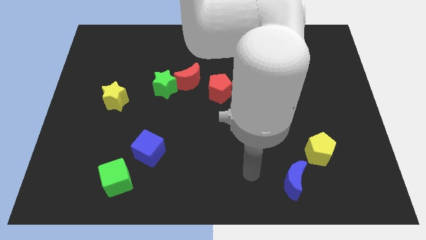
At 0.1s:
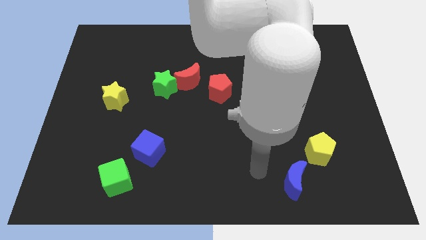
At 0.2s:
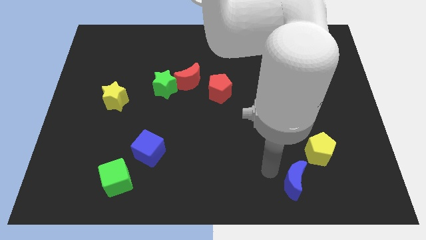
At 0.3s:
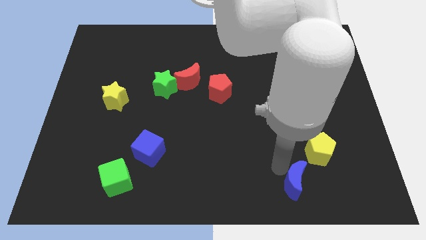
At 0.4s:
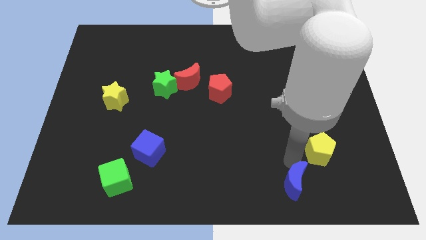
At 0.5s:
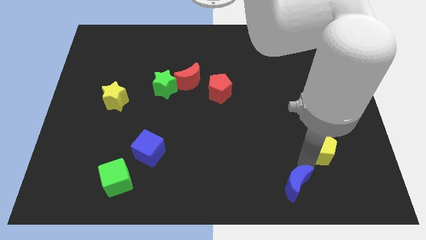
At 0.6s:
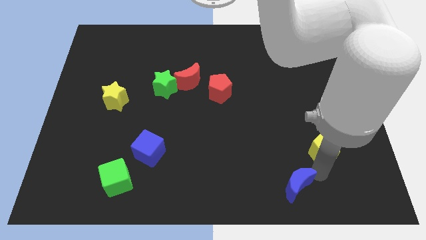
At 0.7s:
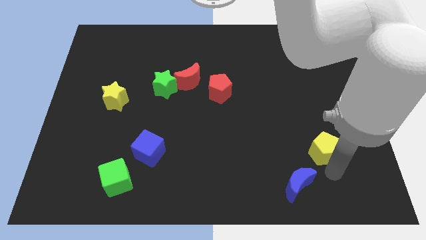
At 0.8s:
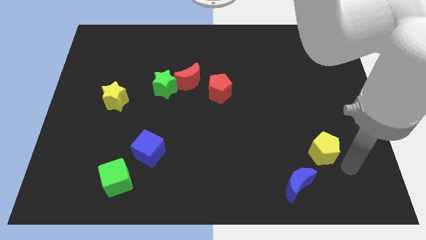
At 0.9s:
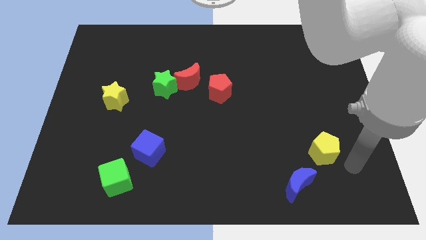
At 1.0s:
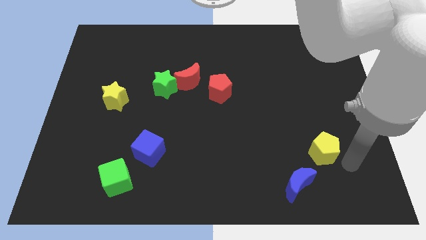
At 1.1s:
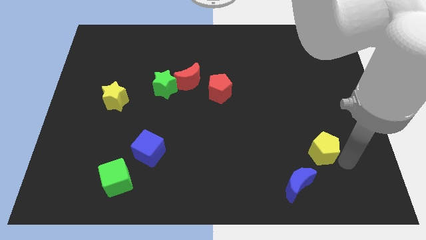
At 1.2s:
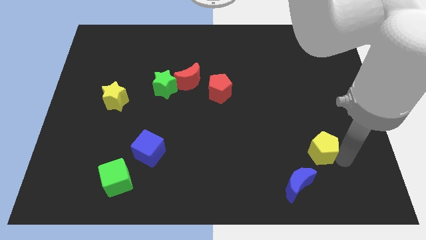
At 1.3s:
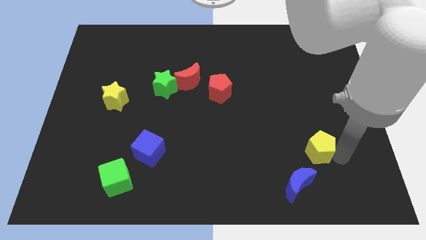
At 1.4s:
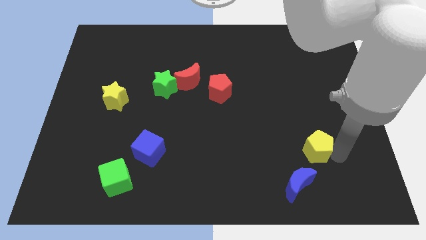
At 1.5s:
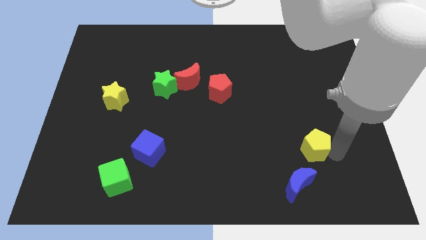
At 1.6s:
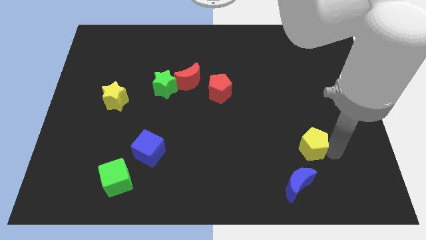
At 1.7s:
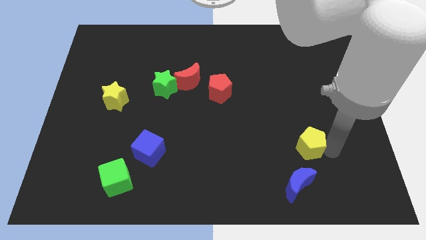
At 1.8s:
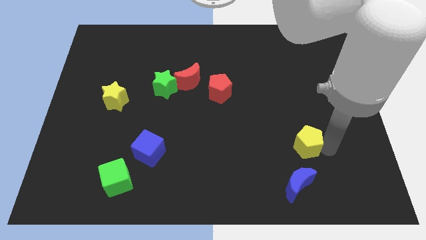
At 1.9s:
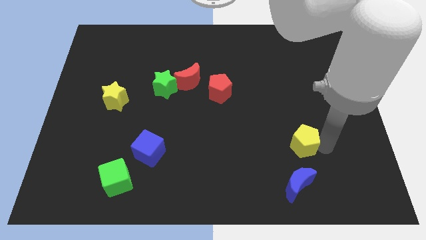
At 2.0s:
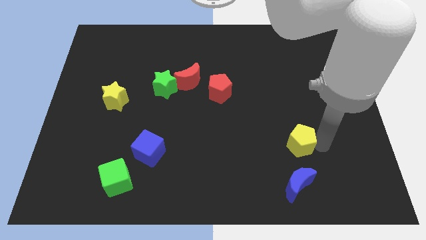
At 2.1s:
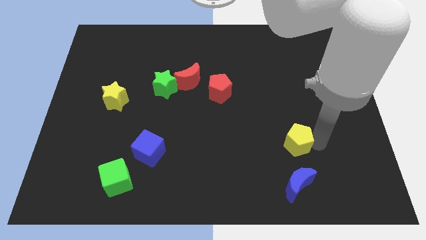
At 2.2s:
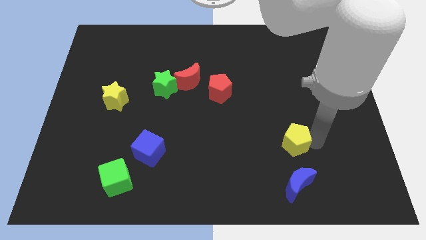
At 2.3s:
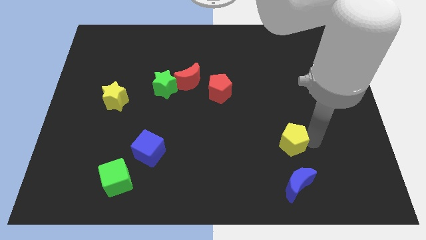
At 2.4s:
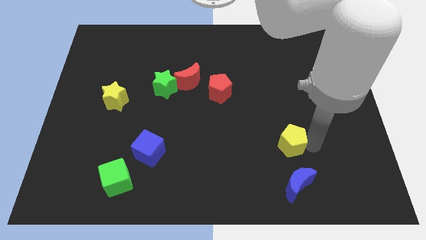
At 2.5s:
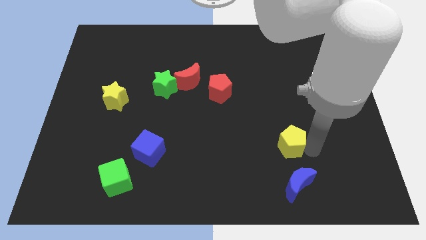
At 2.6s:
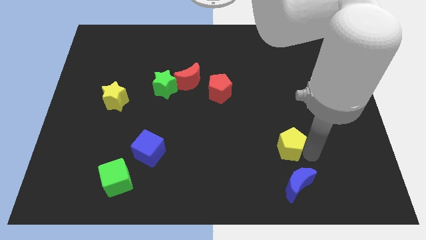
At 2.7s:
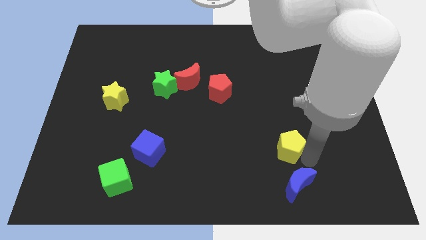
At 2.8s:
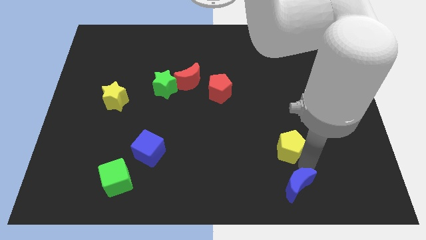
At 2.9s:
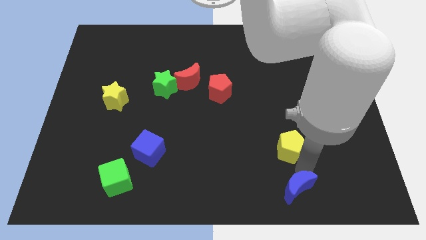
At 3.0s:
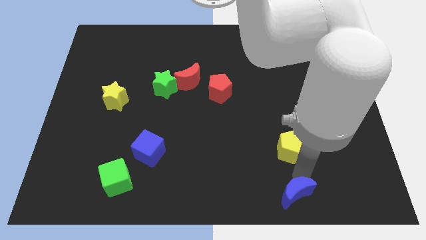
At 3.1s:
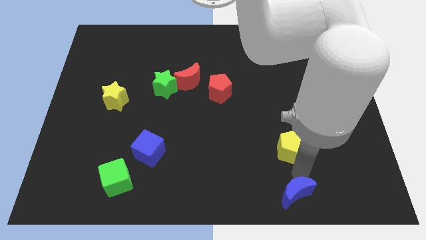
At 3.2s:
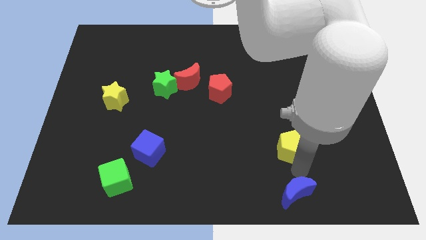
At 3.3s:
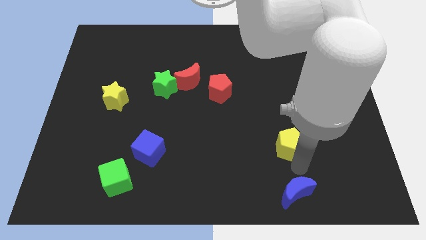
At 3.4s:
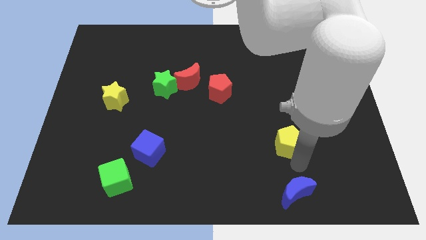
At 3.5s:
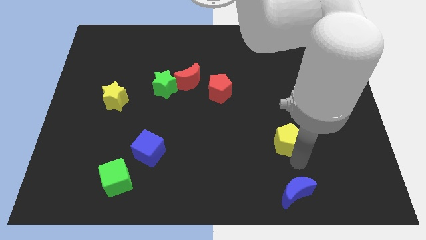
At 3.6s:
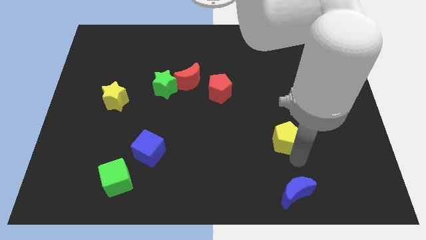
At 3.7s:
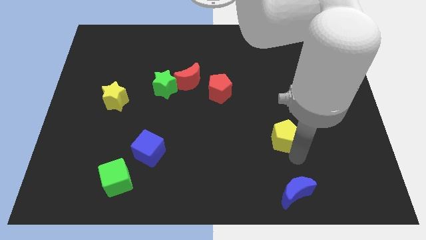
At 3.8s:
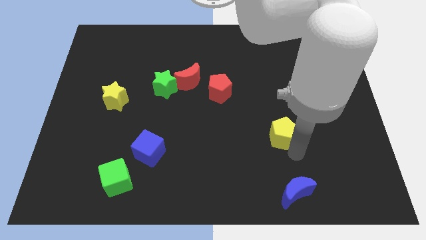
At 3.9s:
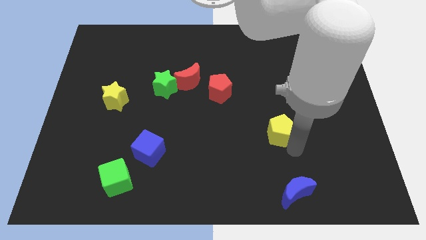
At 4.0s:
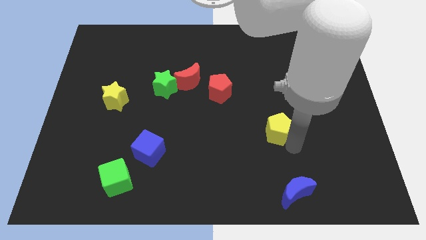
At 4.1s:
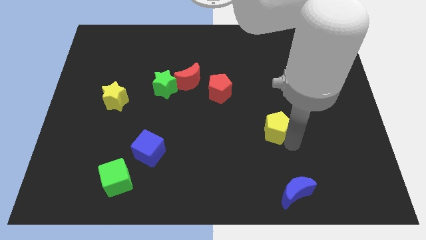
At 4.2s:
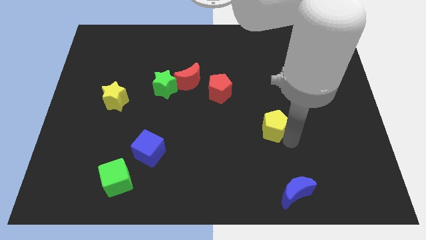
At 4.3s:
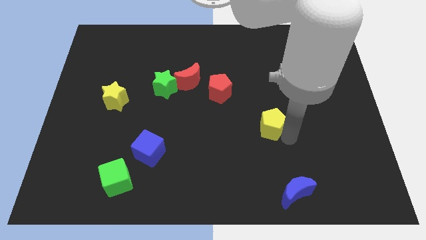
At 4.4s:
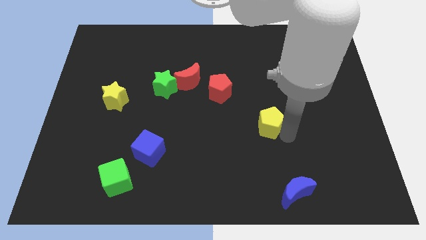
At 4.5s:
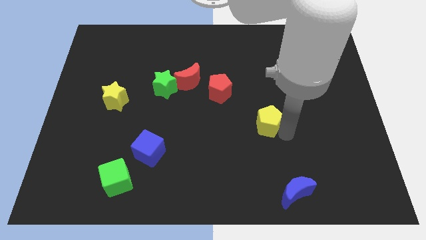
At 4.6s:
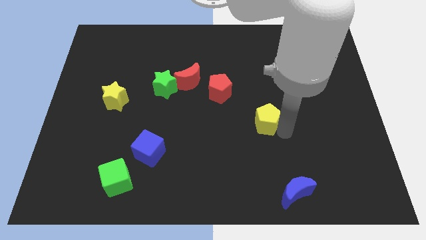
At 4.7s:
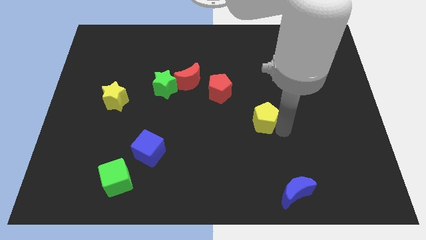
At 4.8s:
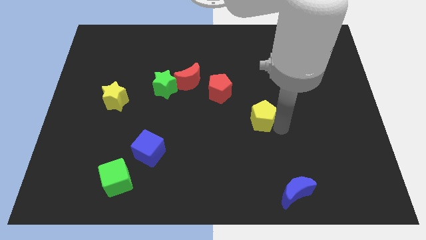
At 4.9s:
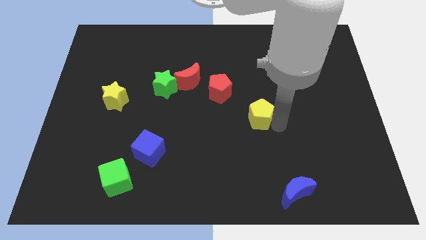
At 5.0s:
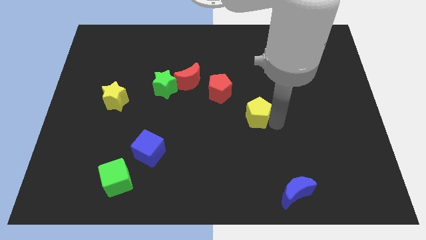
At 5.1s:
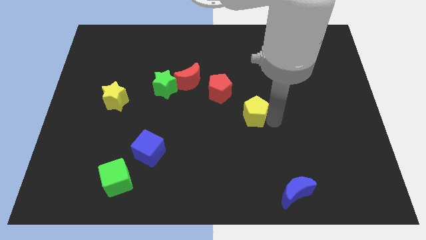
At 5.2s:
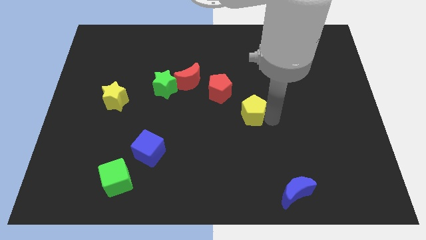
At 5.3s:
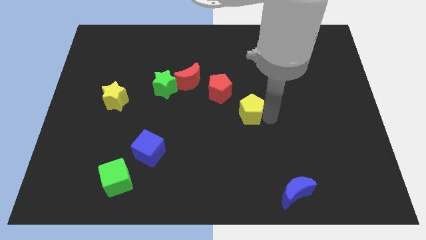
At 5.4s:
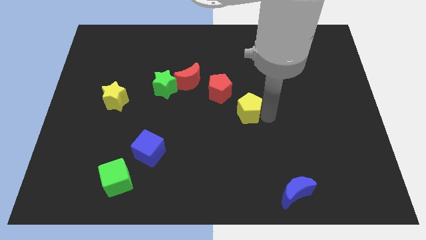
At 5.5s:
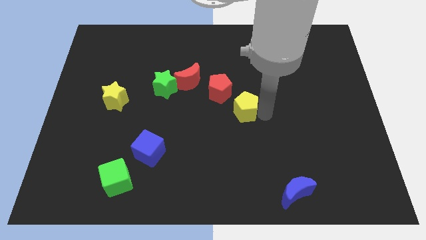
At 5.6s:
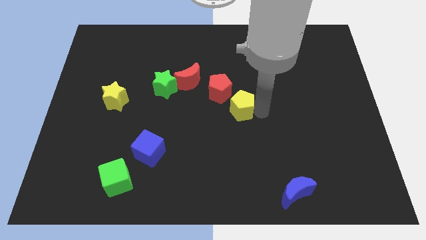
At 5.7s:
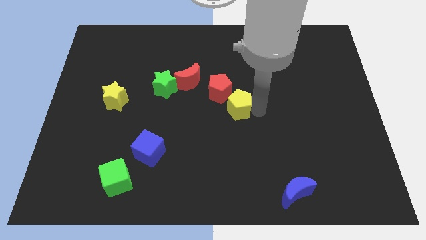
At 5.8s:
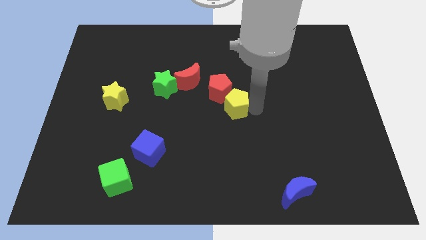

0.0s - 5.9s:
push the yellow pentagon to the red pentagon

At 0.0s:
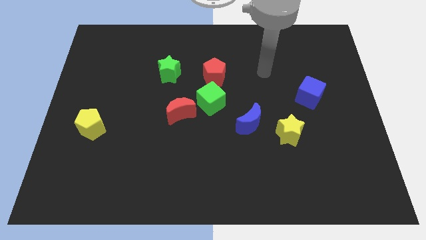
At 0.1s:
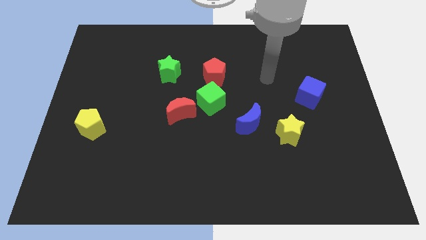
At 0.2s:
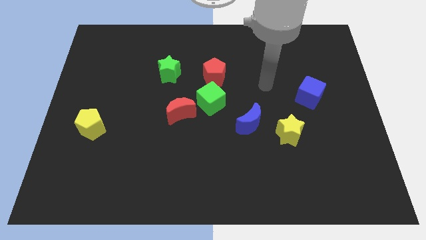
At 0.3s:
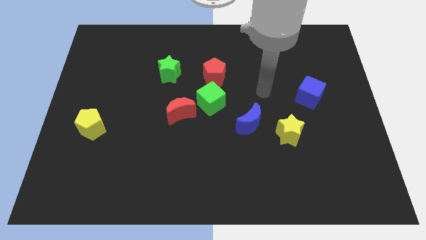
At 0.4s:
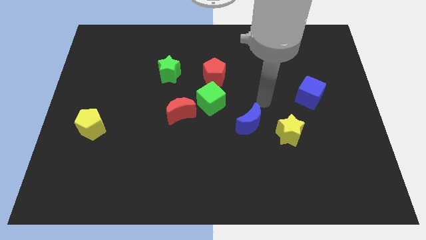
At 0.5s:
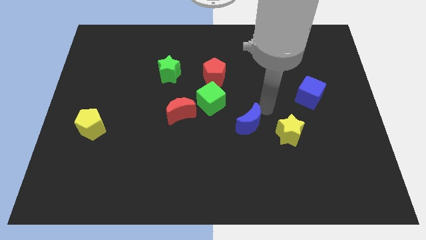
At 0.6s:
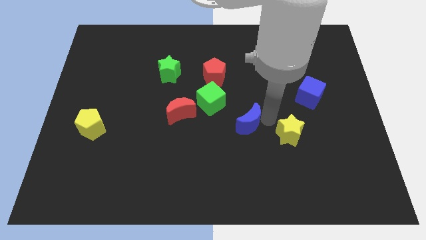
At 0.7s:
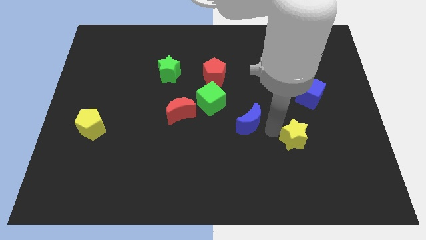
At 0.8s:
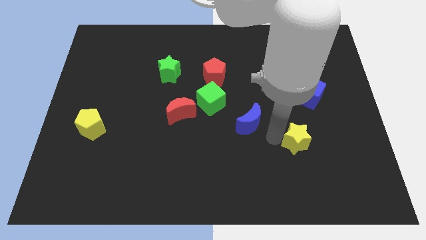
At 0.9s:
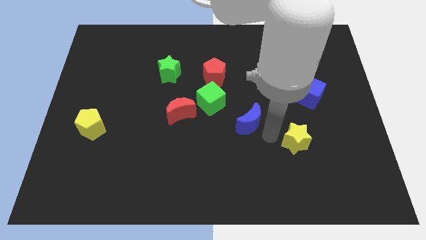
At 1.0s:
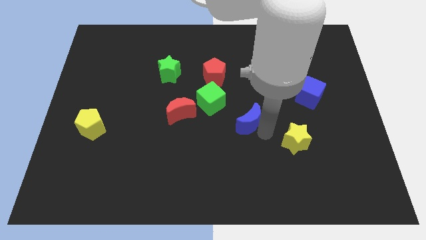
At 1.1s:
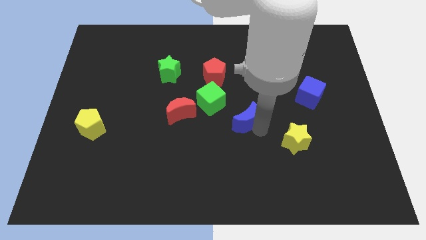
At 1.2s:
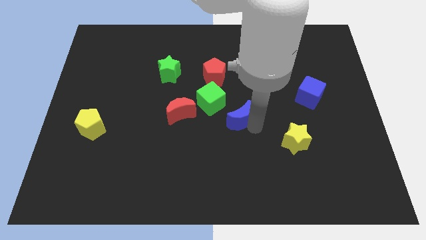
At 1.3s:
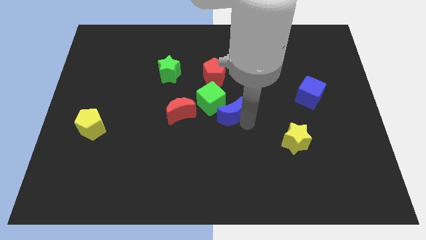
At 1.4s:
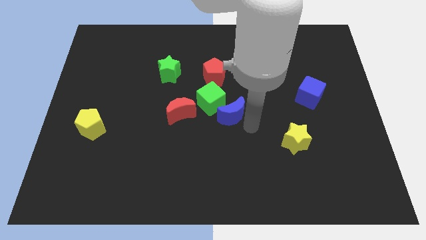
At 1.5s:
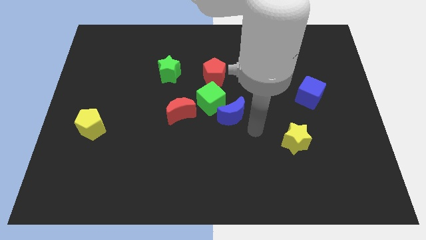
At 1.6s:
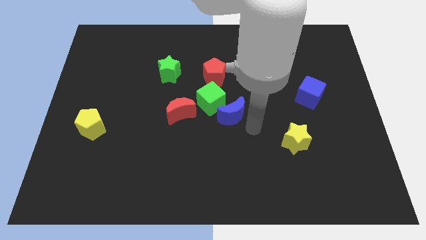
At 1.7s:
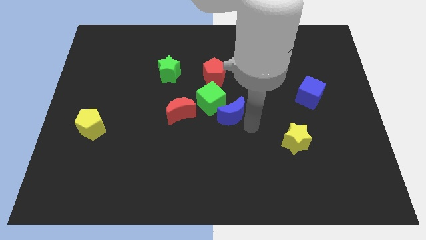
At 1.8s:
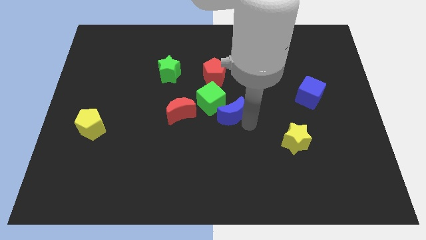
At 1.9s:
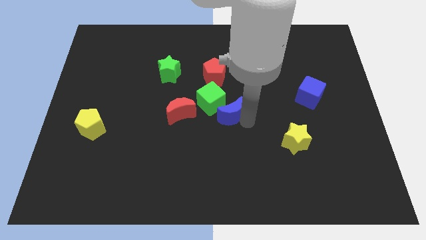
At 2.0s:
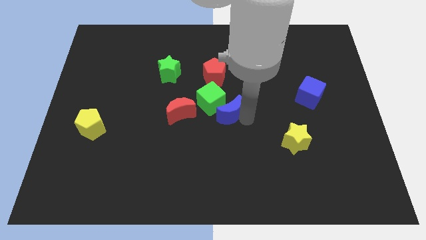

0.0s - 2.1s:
slide the blue moon towards the green cube
